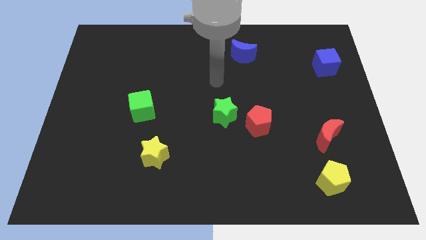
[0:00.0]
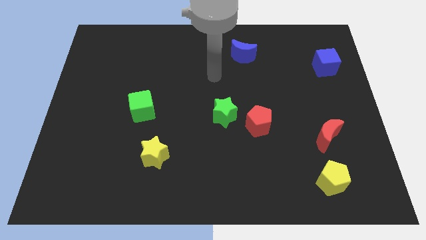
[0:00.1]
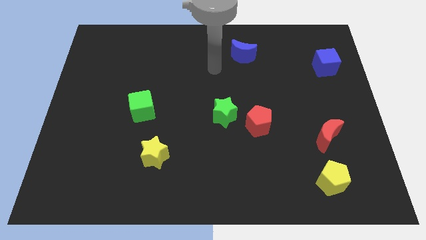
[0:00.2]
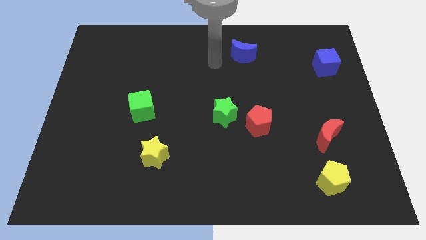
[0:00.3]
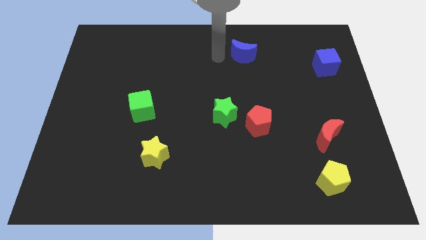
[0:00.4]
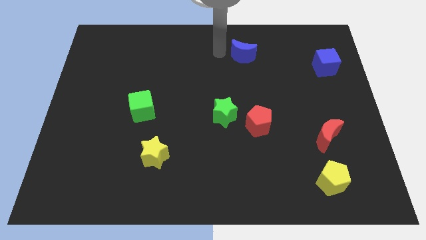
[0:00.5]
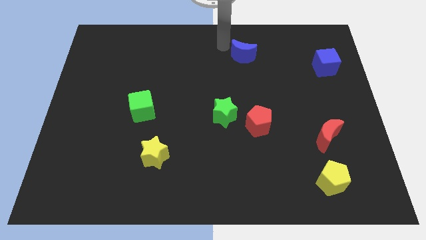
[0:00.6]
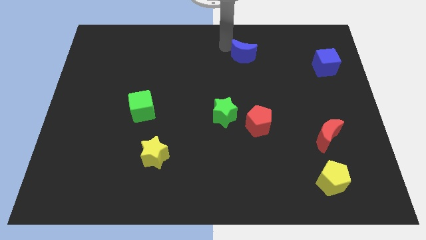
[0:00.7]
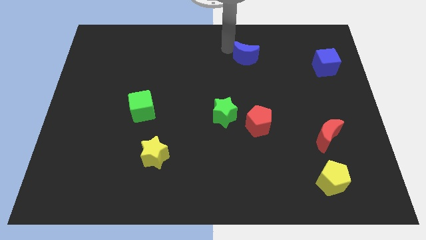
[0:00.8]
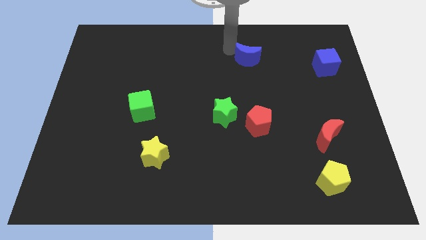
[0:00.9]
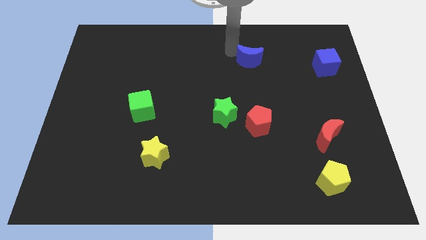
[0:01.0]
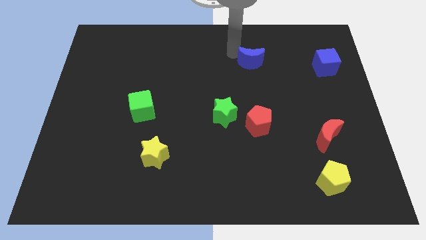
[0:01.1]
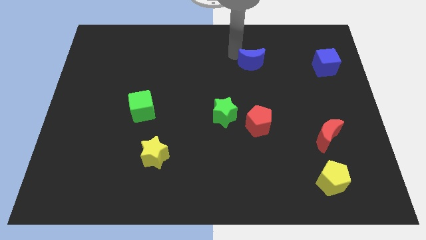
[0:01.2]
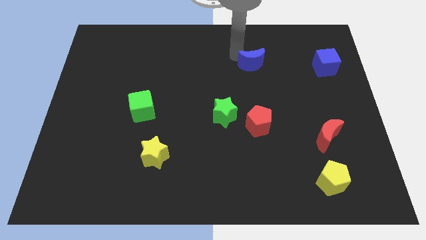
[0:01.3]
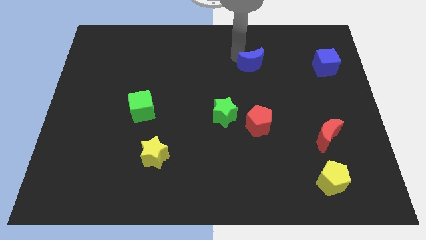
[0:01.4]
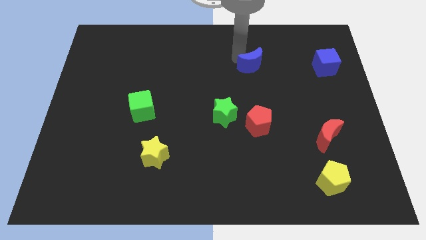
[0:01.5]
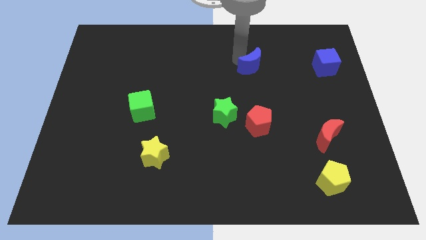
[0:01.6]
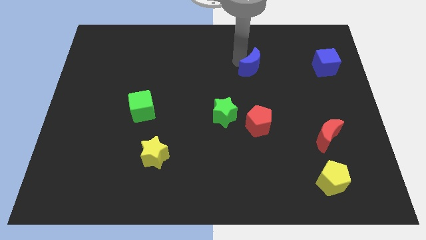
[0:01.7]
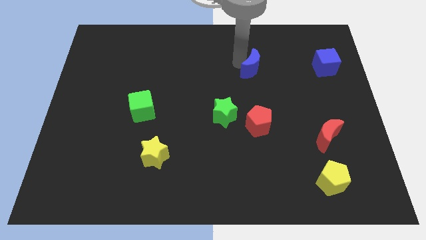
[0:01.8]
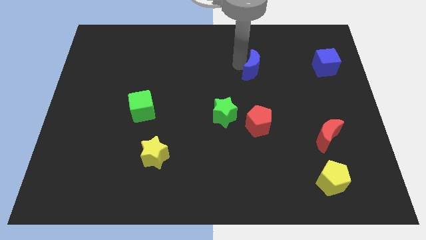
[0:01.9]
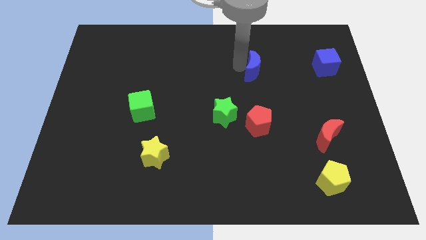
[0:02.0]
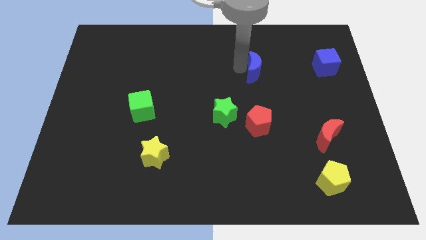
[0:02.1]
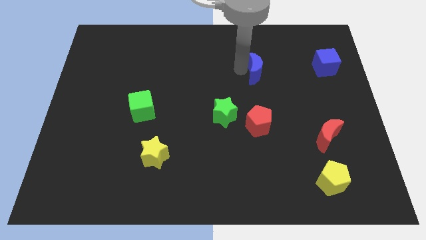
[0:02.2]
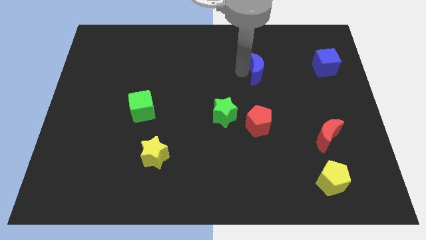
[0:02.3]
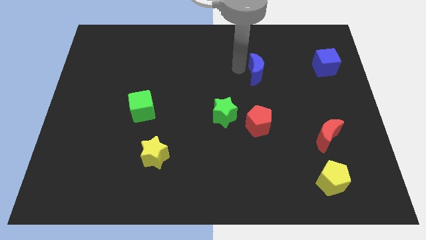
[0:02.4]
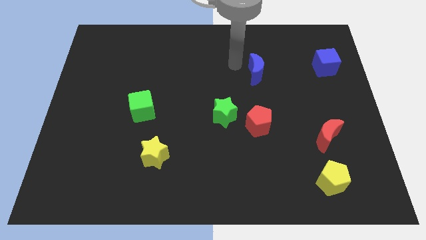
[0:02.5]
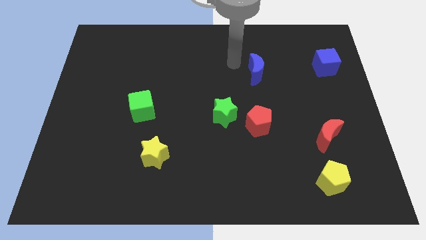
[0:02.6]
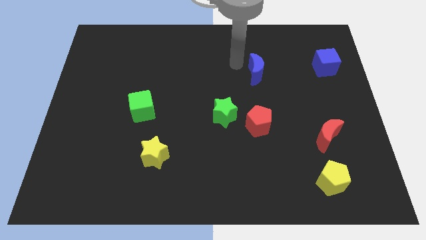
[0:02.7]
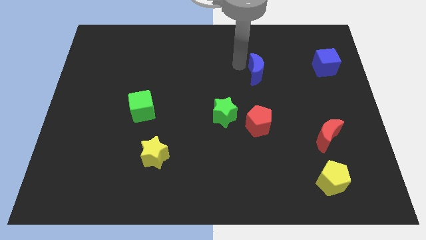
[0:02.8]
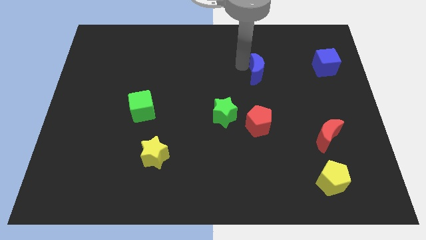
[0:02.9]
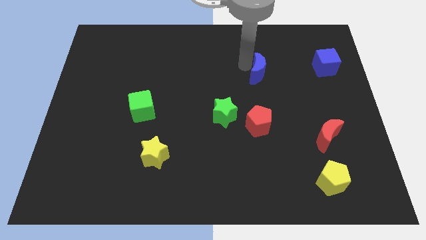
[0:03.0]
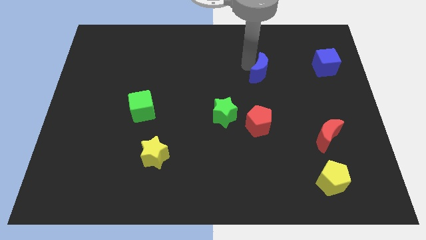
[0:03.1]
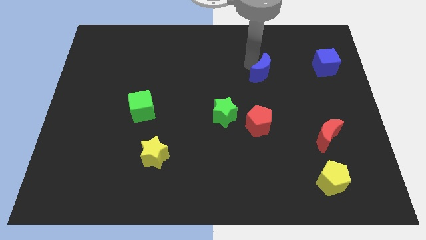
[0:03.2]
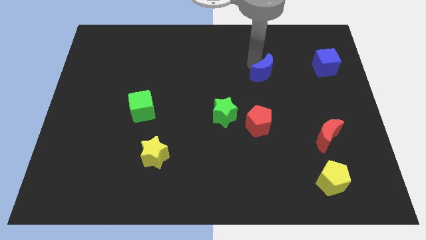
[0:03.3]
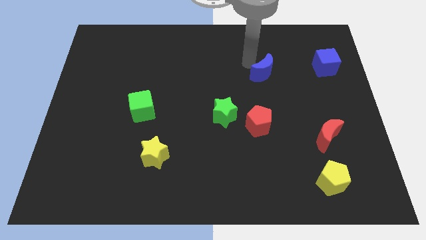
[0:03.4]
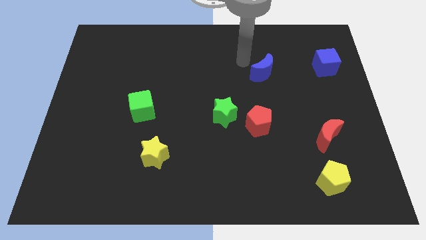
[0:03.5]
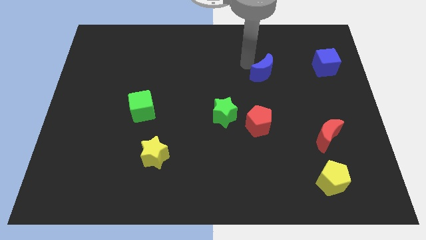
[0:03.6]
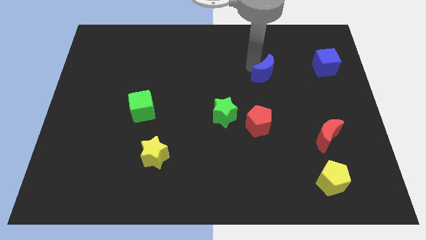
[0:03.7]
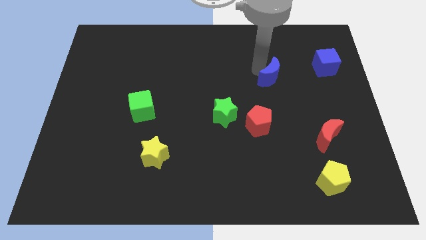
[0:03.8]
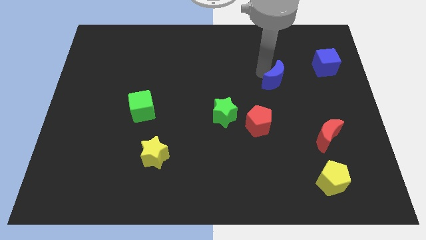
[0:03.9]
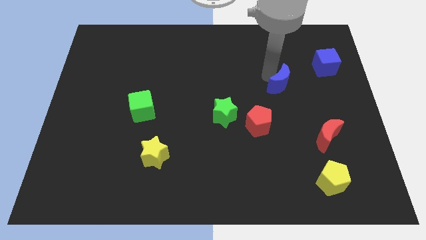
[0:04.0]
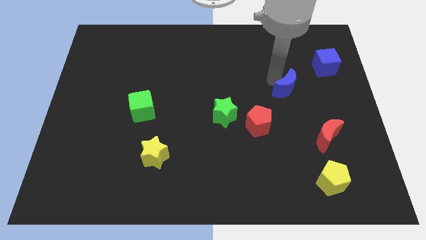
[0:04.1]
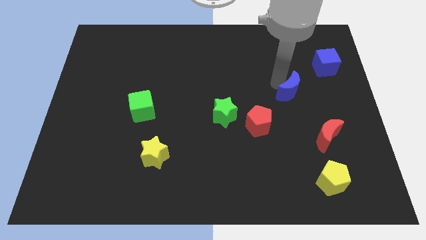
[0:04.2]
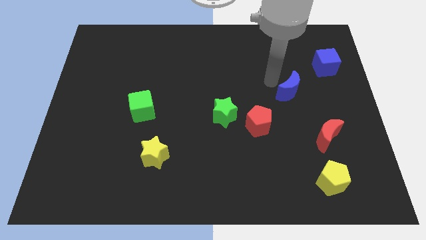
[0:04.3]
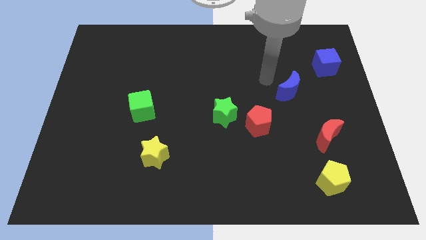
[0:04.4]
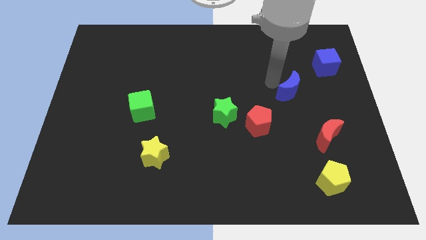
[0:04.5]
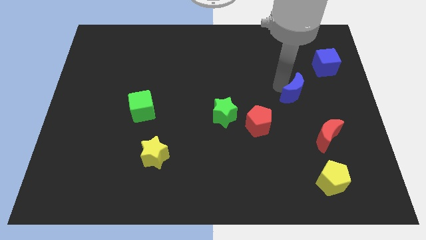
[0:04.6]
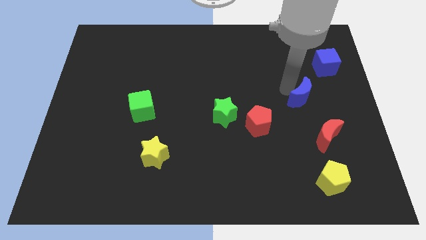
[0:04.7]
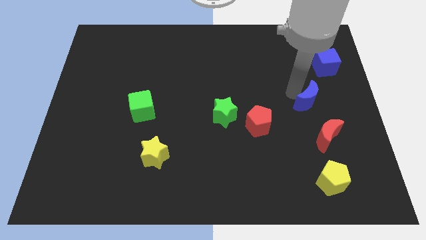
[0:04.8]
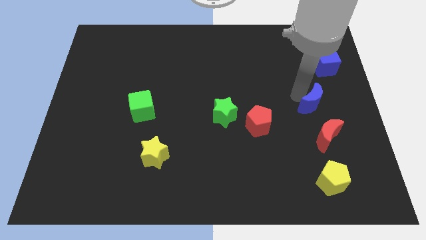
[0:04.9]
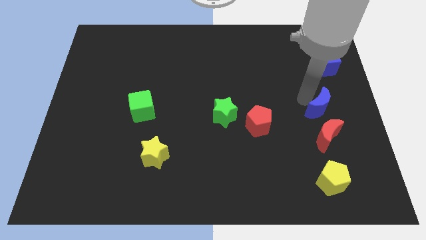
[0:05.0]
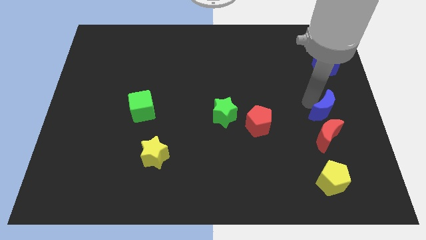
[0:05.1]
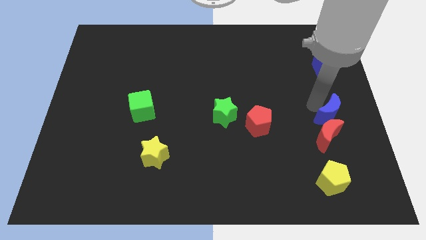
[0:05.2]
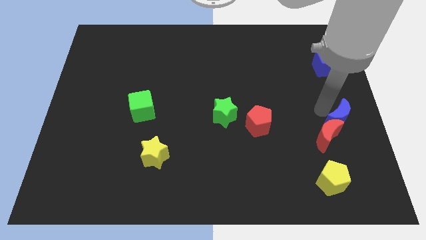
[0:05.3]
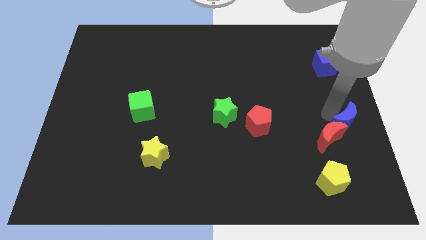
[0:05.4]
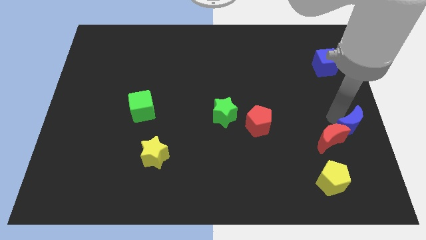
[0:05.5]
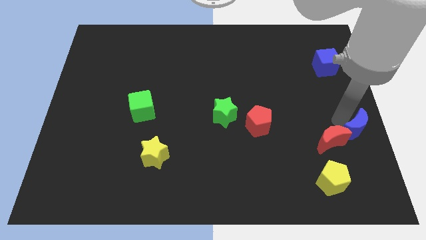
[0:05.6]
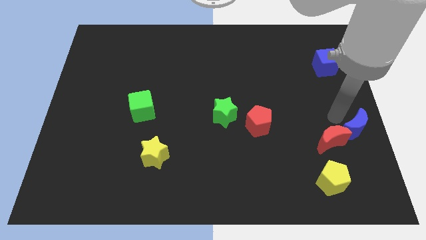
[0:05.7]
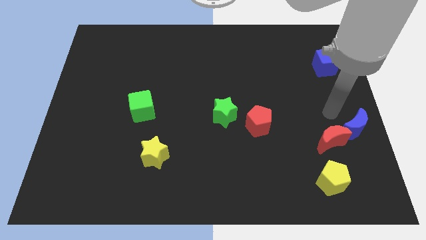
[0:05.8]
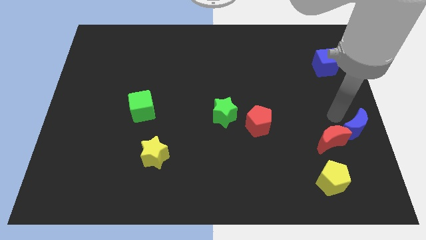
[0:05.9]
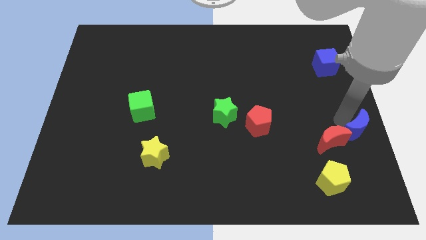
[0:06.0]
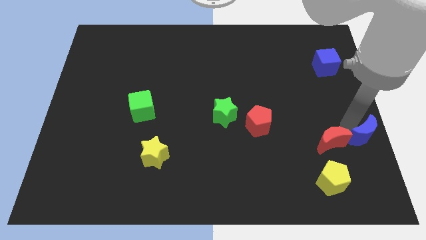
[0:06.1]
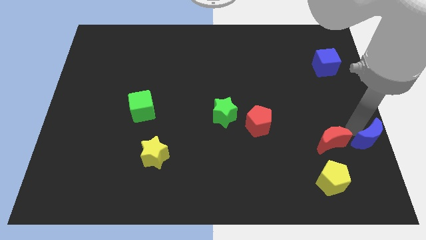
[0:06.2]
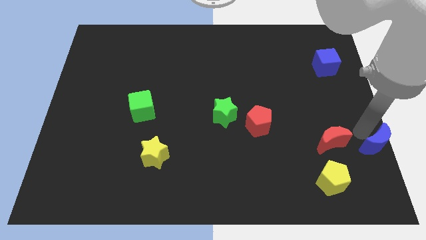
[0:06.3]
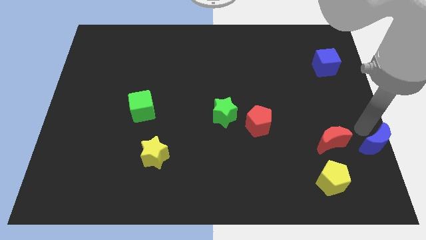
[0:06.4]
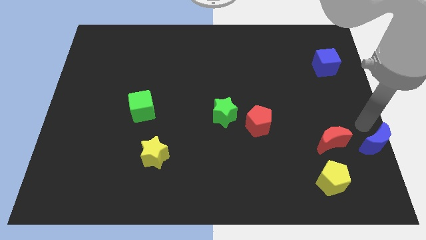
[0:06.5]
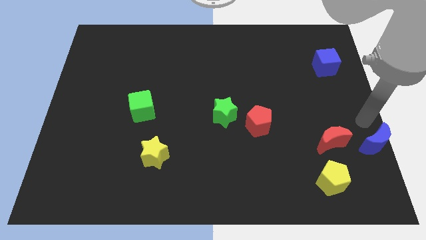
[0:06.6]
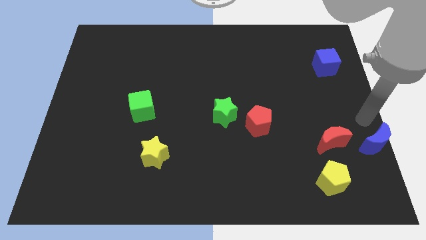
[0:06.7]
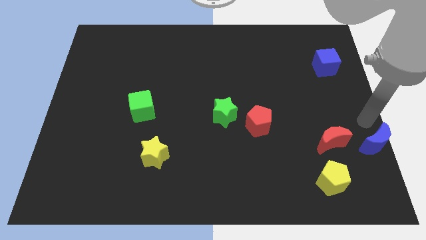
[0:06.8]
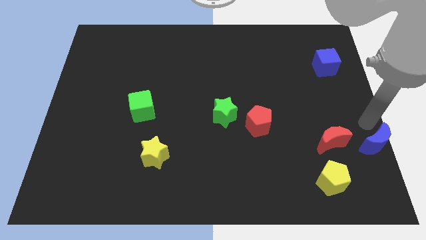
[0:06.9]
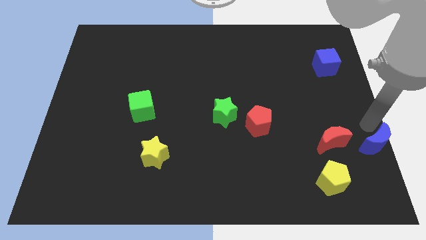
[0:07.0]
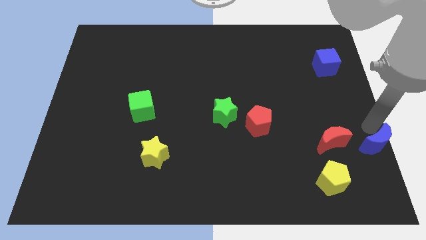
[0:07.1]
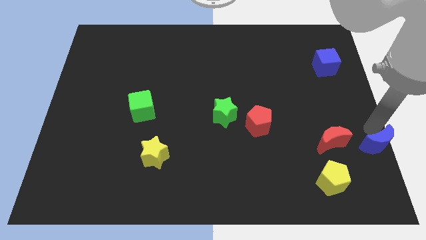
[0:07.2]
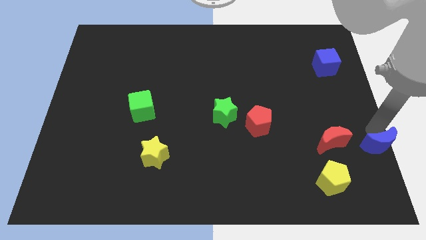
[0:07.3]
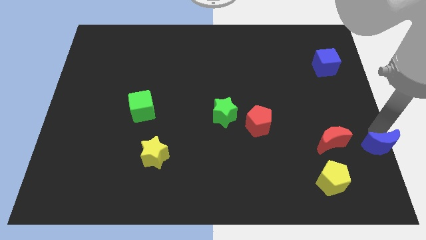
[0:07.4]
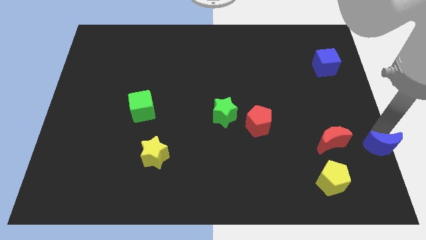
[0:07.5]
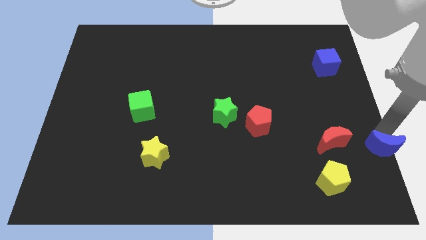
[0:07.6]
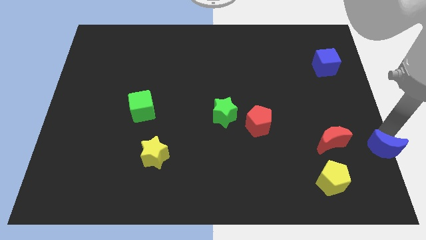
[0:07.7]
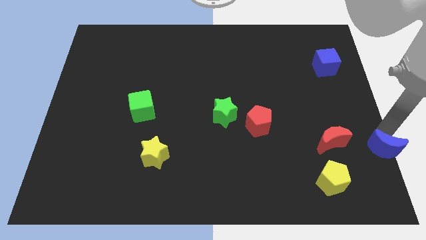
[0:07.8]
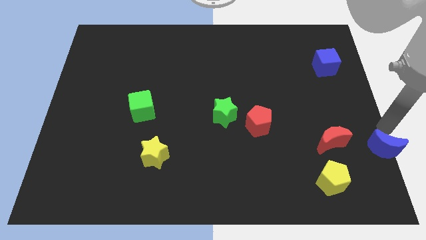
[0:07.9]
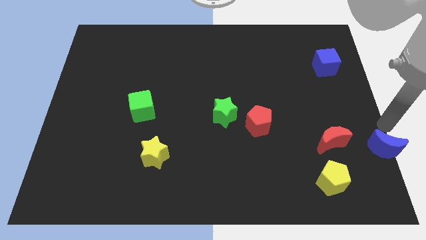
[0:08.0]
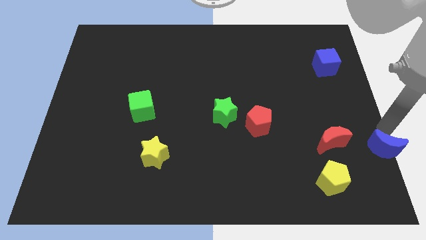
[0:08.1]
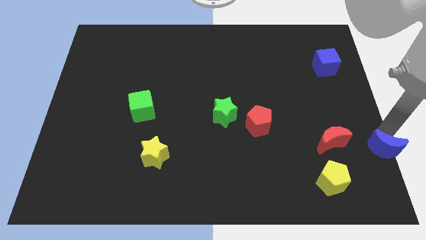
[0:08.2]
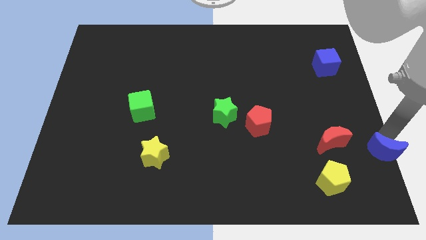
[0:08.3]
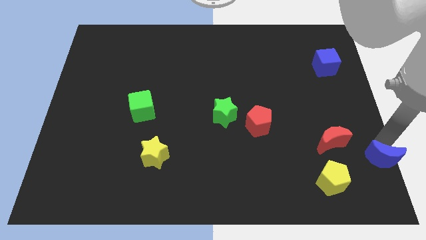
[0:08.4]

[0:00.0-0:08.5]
push the blue moon to the lower right corner
